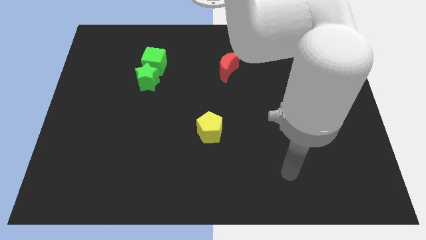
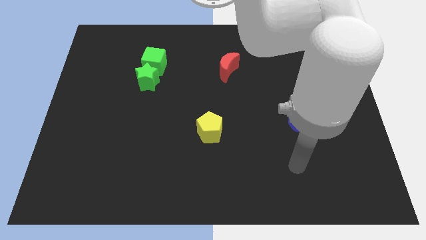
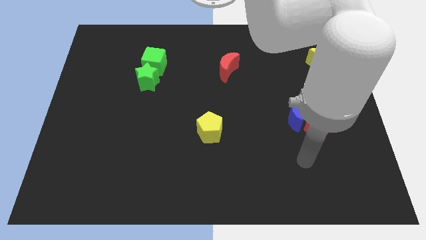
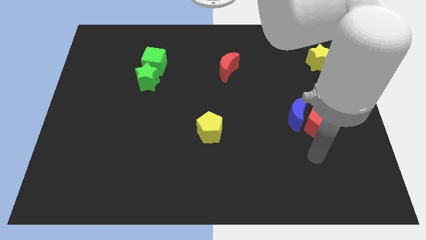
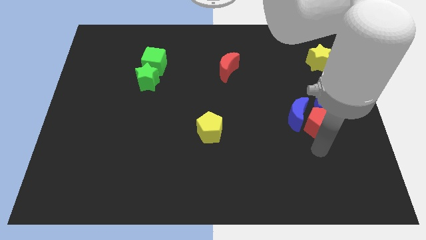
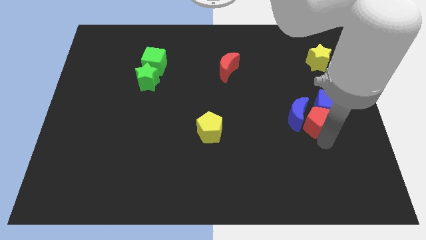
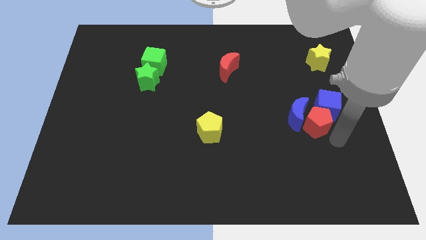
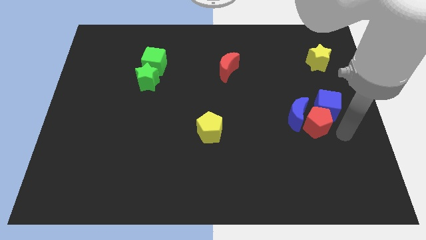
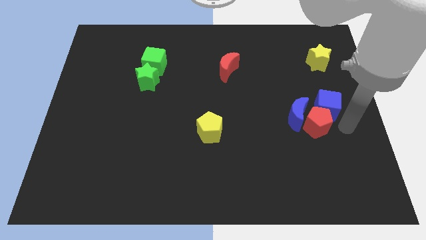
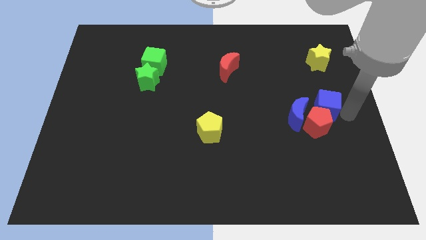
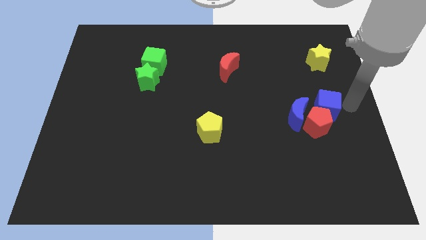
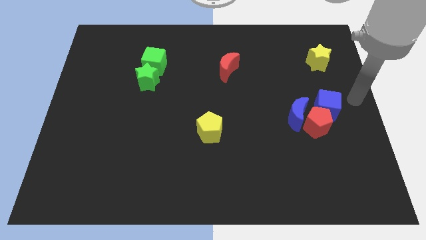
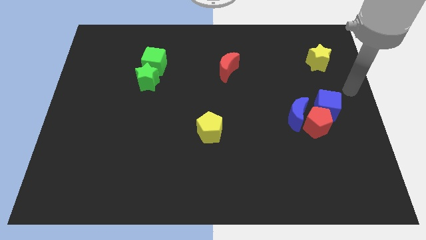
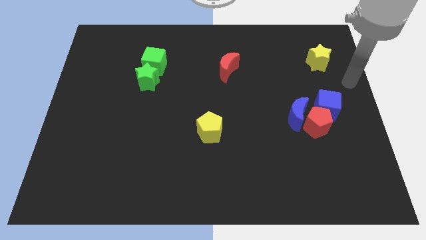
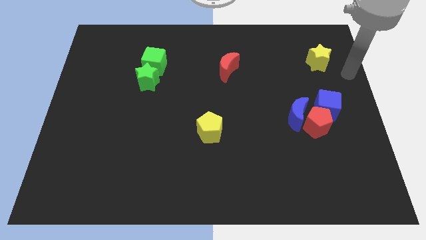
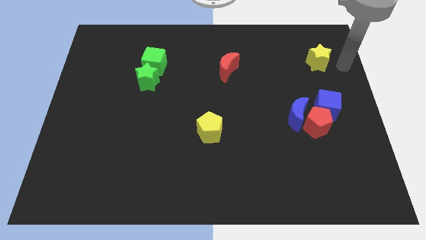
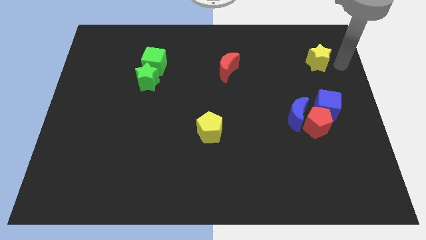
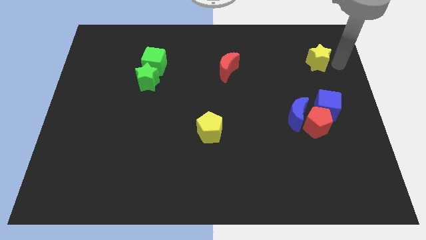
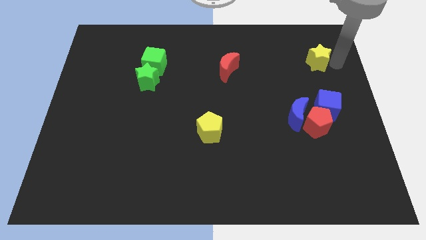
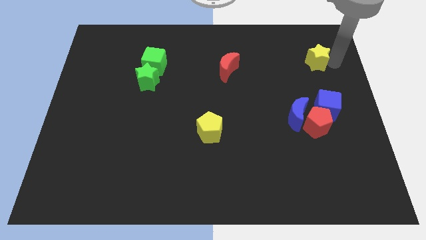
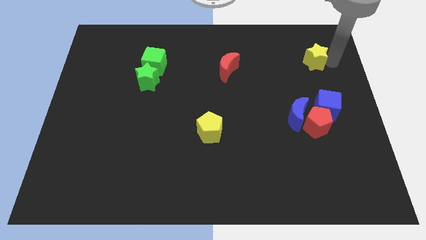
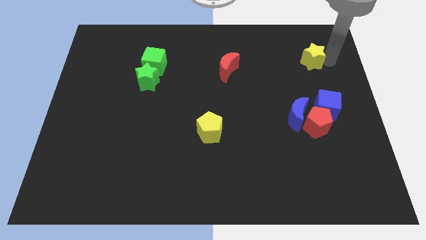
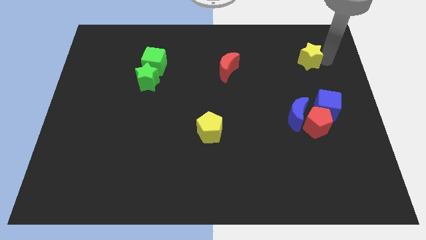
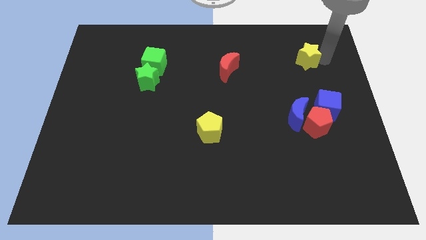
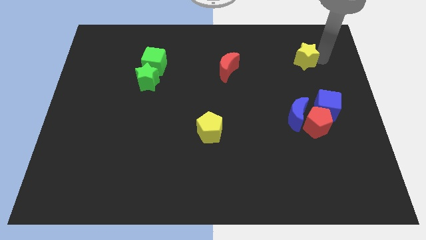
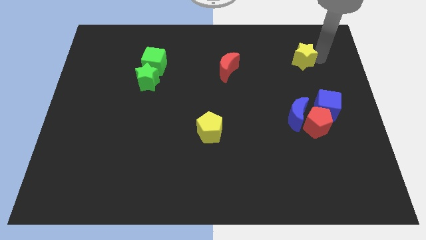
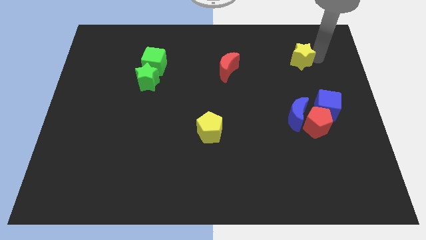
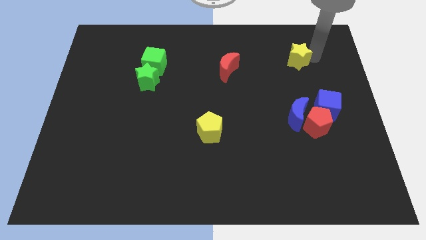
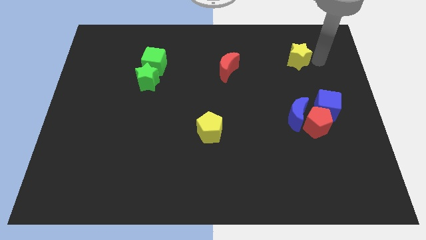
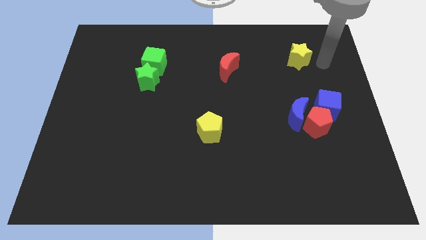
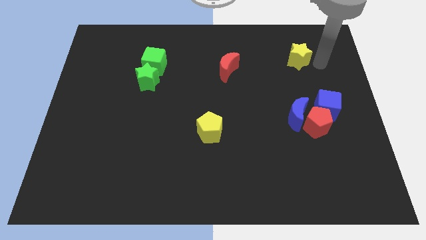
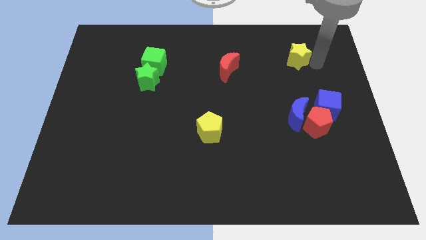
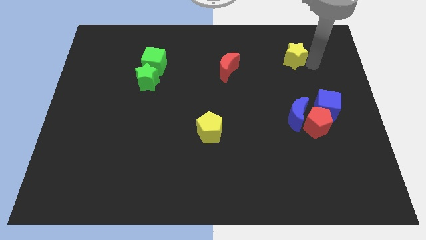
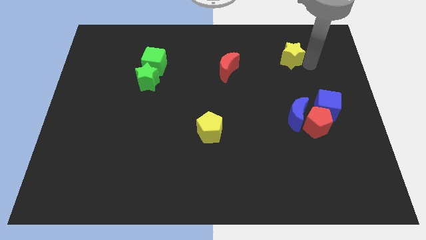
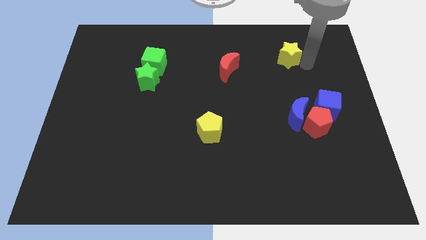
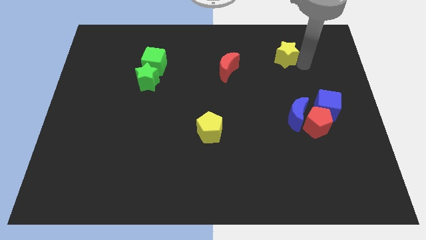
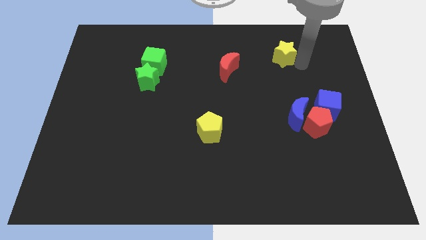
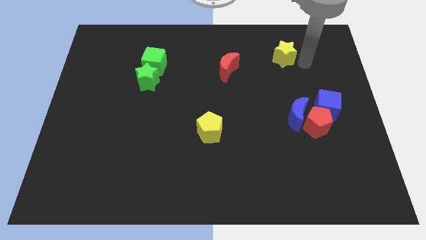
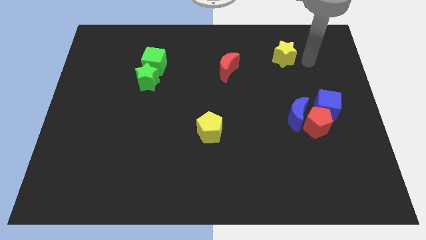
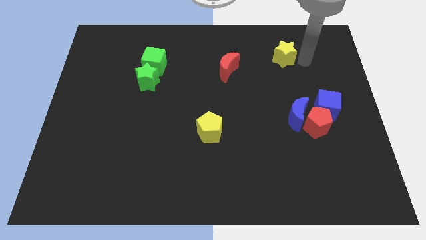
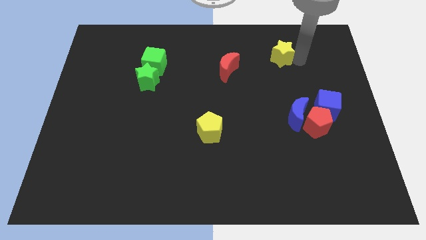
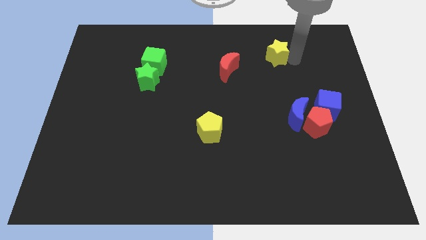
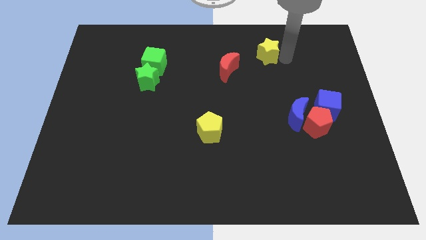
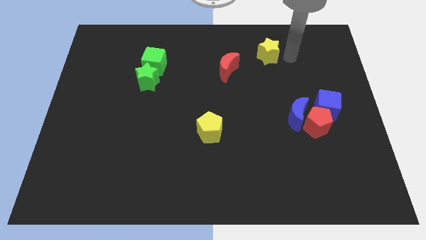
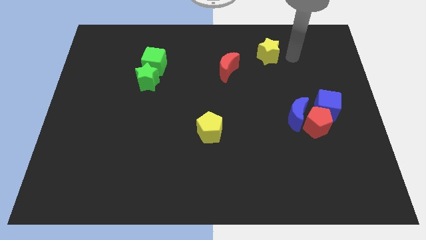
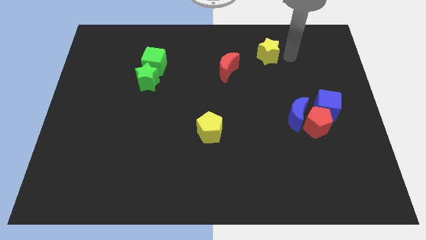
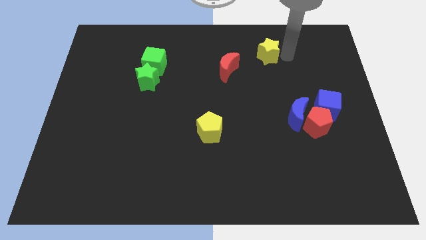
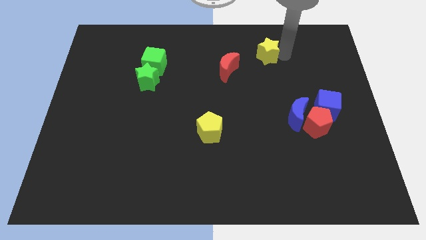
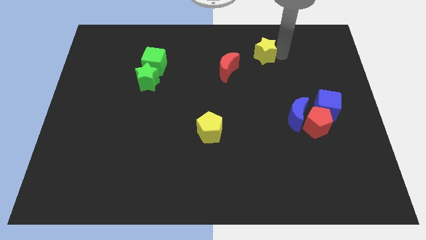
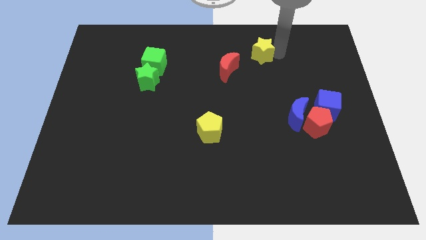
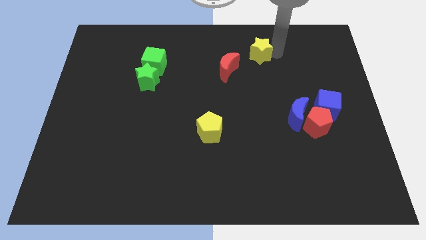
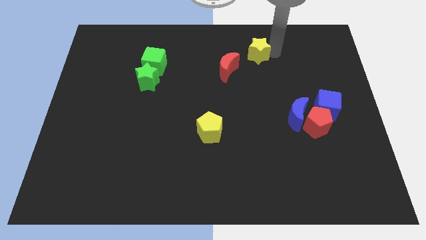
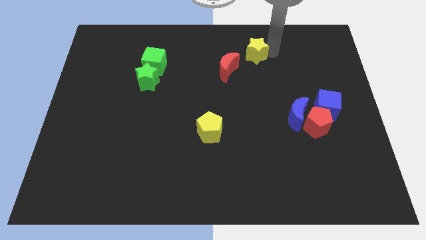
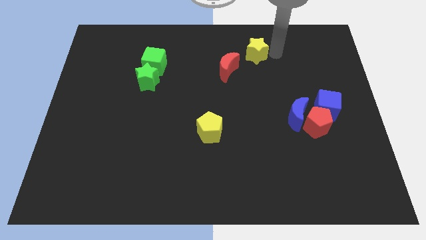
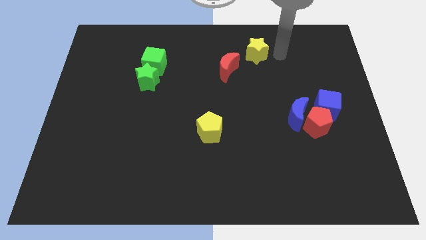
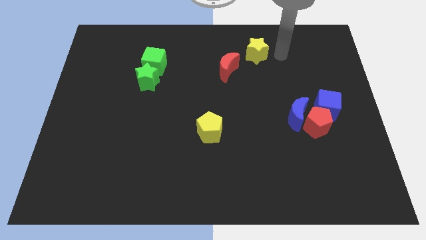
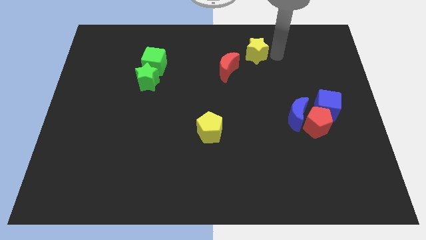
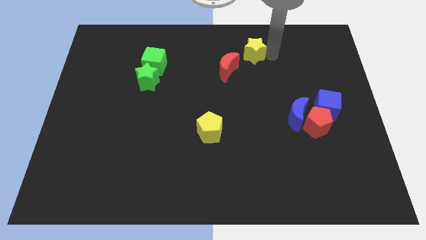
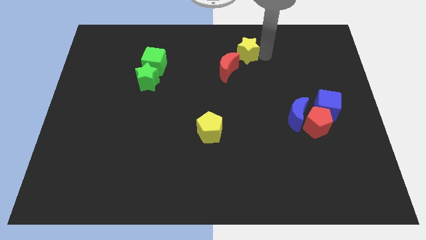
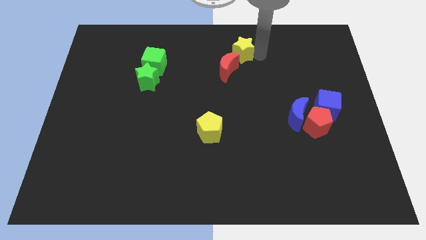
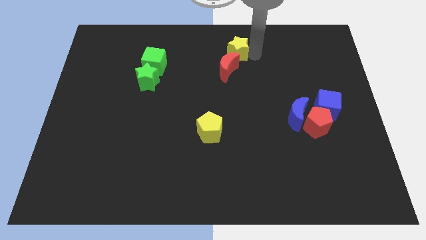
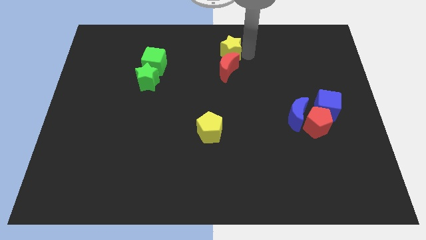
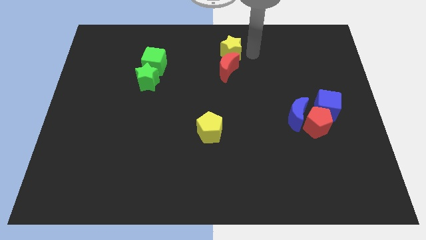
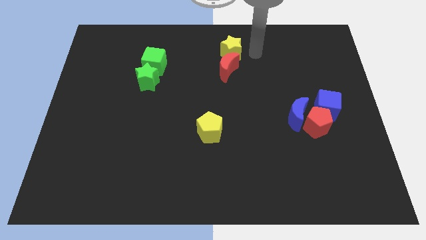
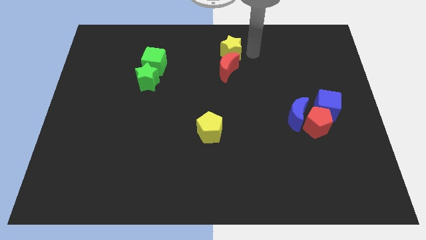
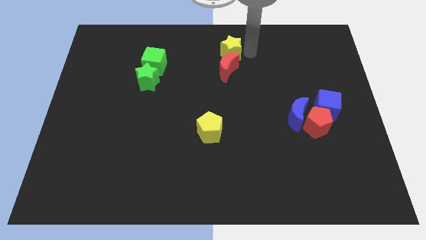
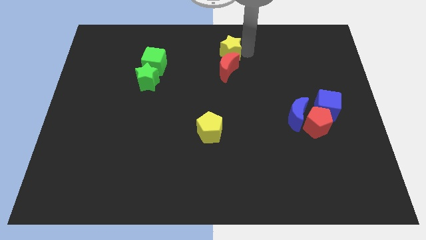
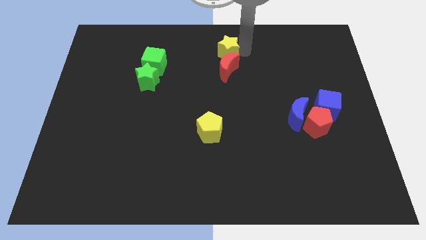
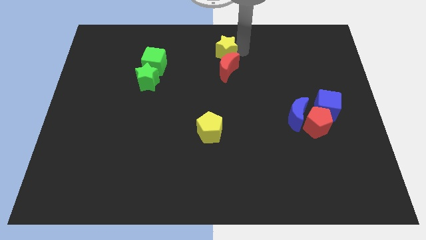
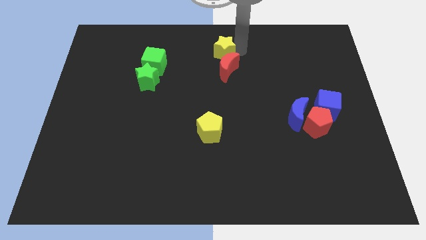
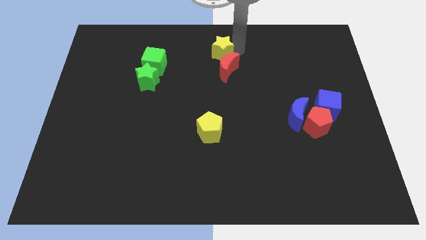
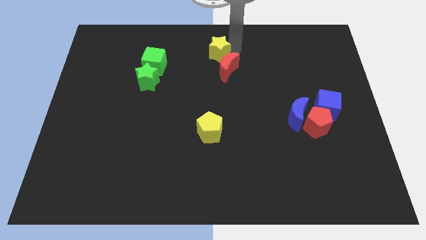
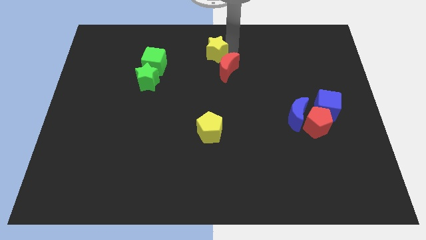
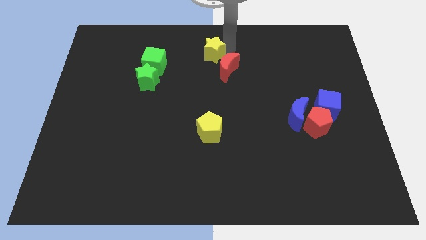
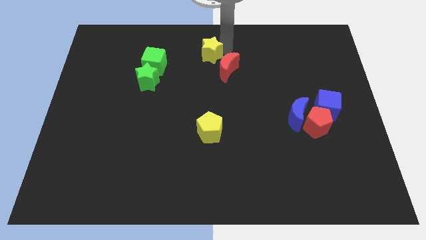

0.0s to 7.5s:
put the yellow star to the right side of the green cube
